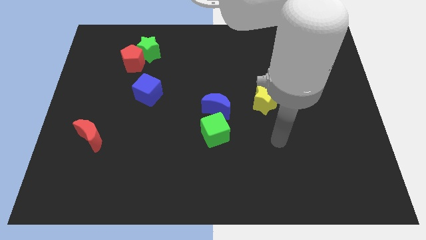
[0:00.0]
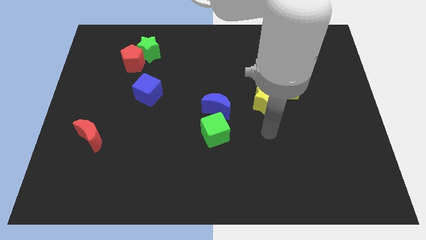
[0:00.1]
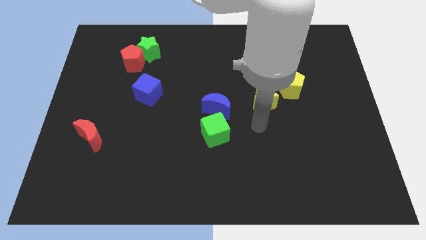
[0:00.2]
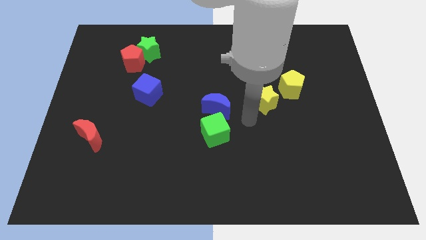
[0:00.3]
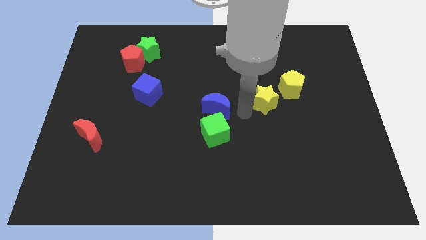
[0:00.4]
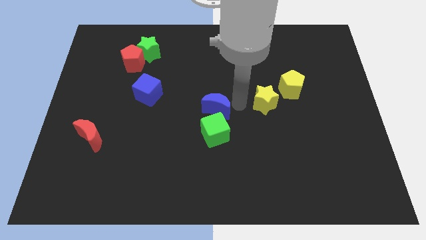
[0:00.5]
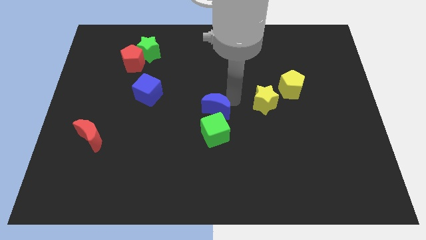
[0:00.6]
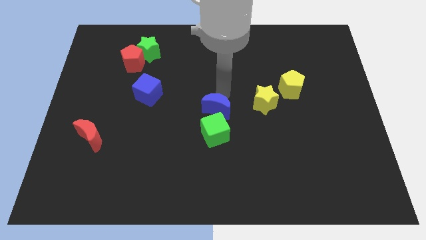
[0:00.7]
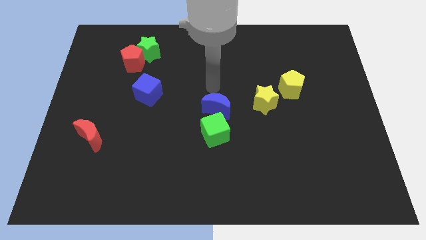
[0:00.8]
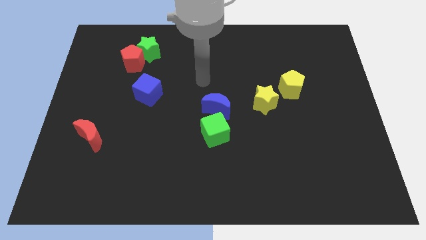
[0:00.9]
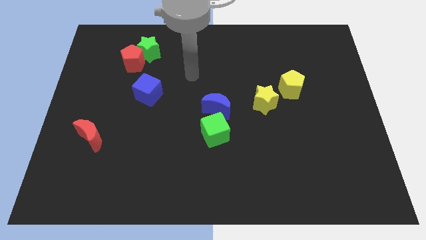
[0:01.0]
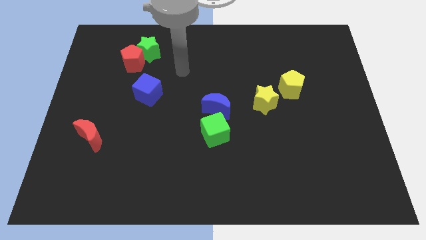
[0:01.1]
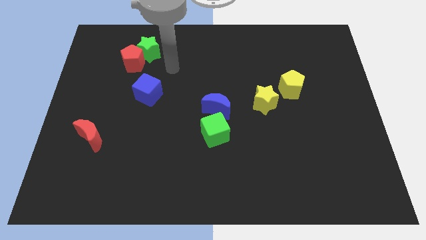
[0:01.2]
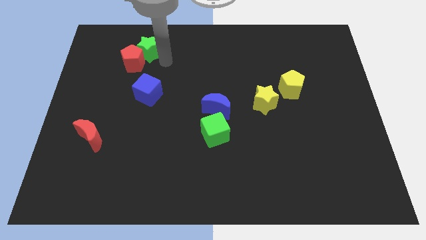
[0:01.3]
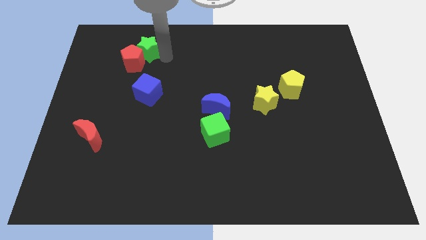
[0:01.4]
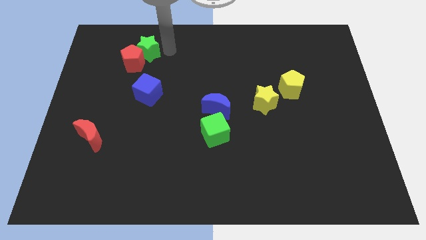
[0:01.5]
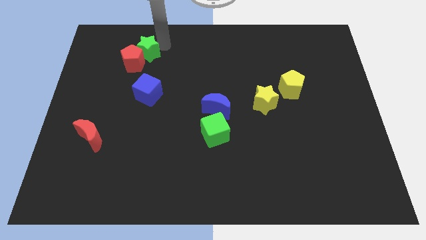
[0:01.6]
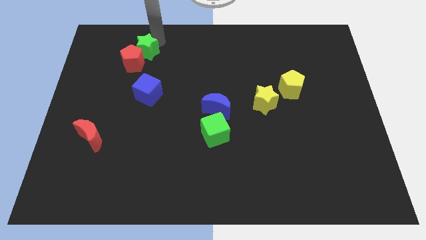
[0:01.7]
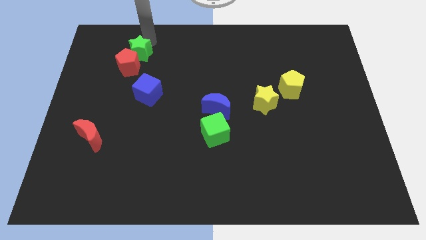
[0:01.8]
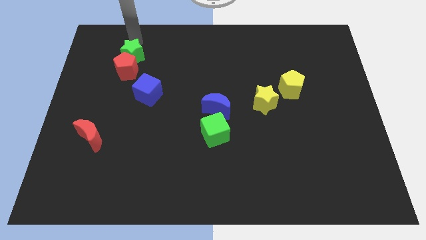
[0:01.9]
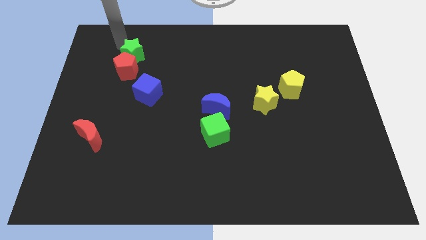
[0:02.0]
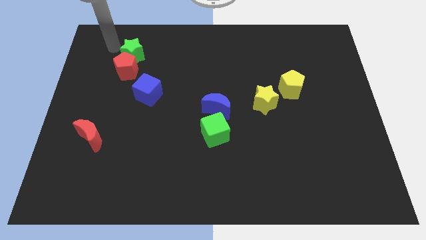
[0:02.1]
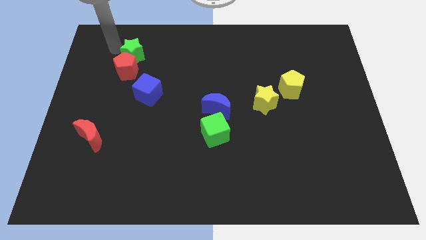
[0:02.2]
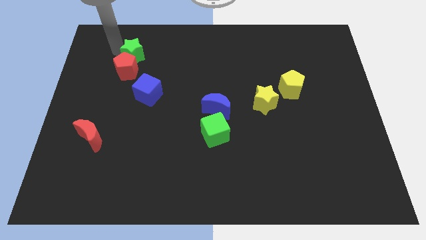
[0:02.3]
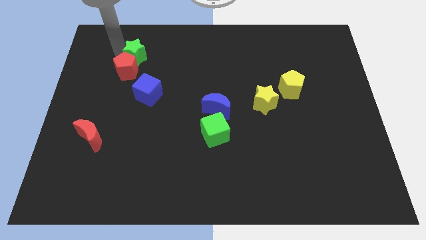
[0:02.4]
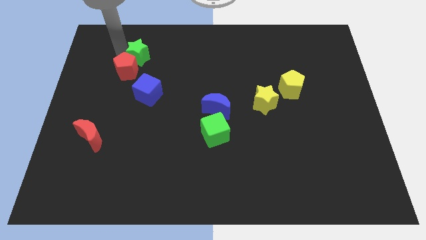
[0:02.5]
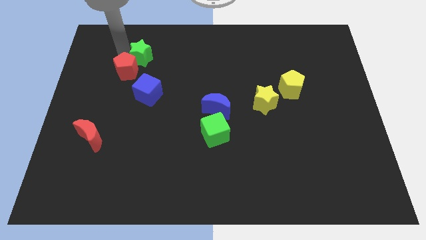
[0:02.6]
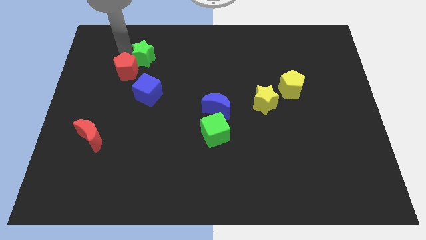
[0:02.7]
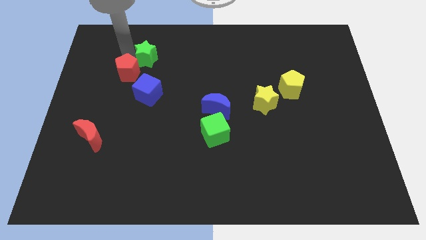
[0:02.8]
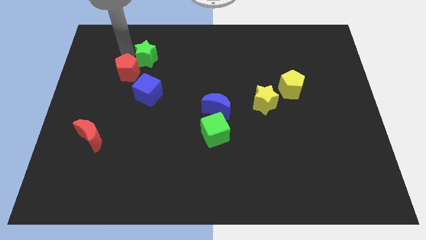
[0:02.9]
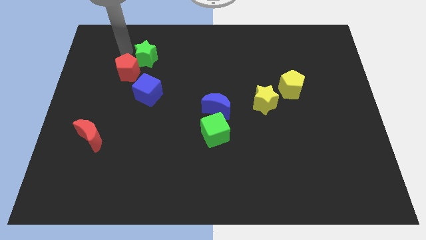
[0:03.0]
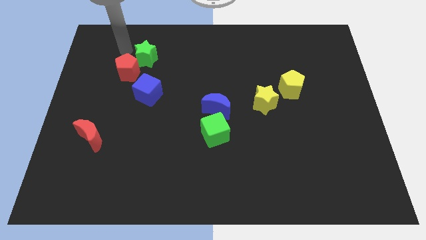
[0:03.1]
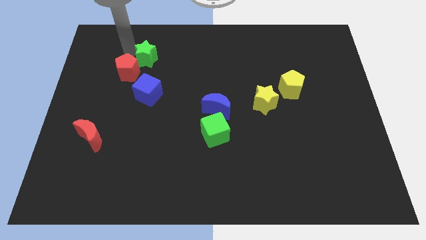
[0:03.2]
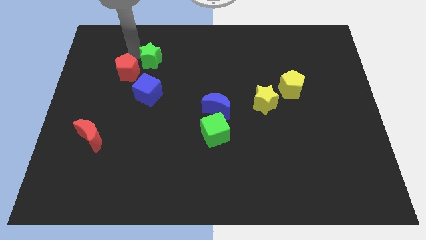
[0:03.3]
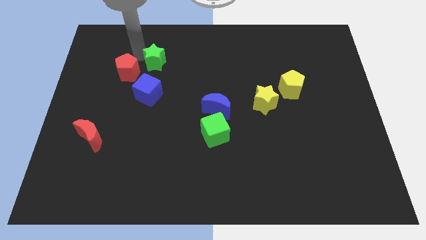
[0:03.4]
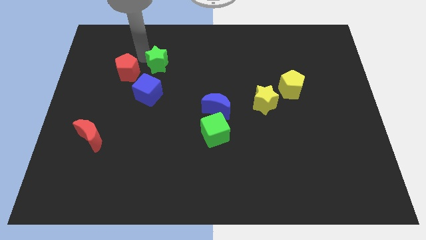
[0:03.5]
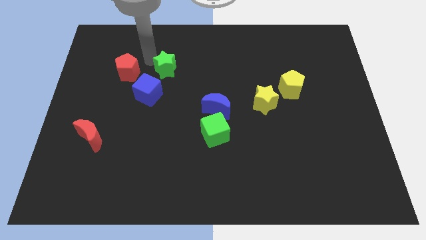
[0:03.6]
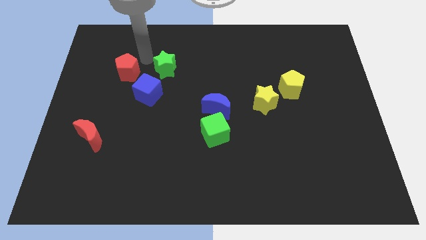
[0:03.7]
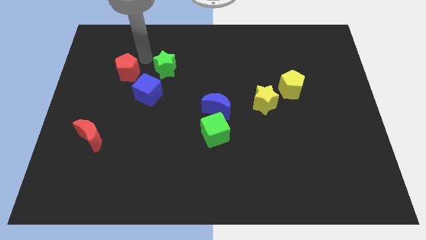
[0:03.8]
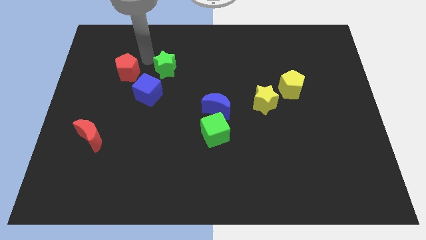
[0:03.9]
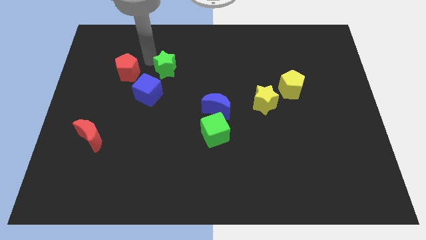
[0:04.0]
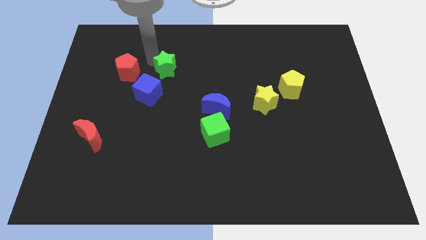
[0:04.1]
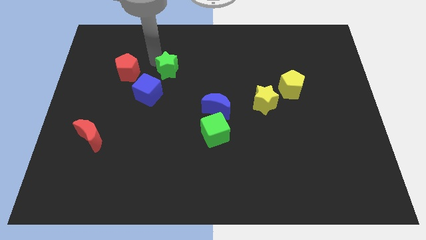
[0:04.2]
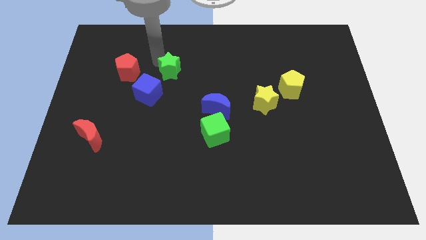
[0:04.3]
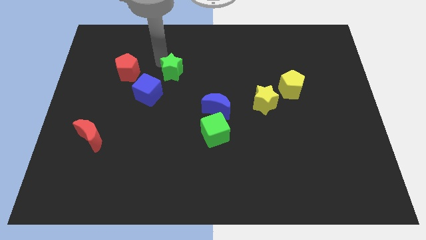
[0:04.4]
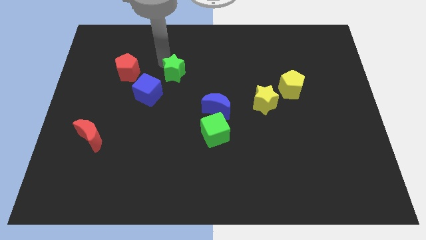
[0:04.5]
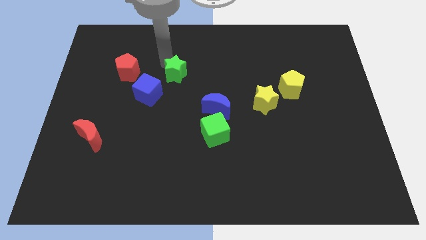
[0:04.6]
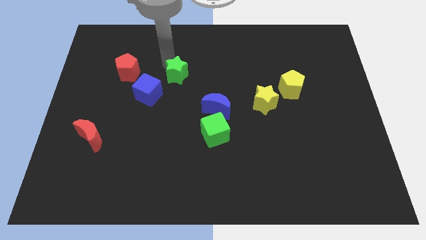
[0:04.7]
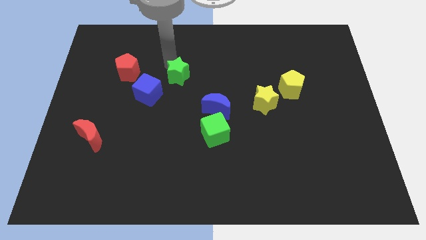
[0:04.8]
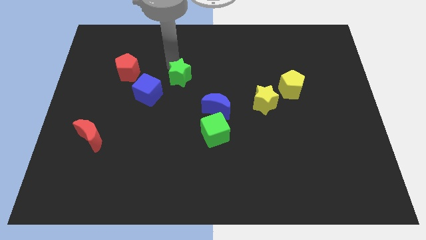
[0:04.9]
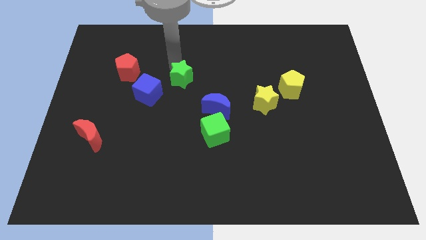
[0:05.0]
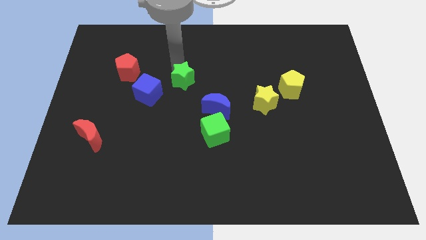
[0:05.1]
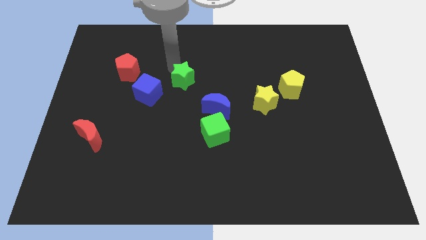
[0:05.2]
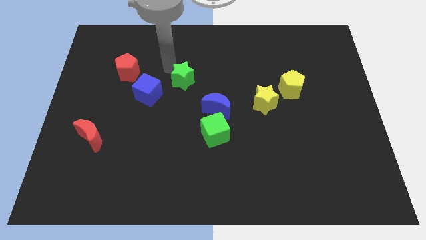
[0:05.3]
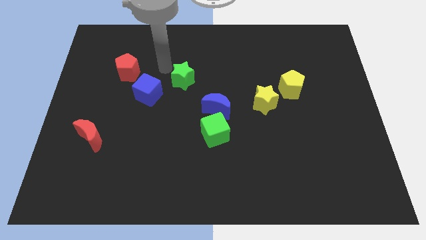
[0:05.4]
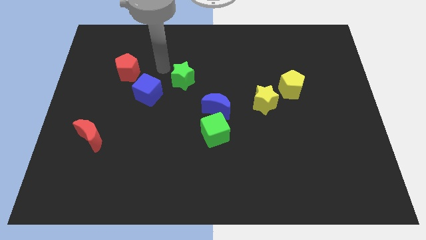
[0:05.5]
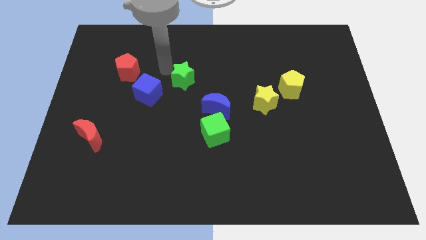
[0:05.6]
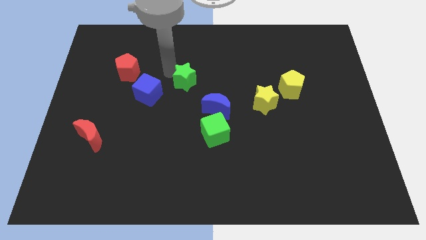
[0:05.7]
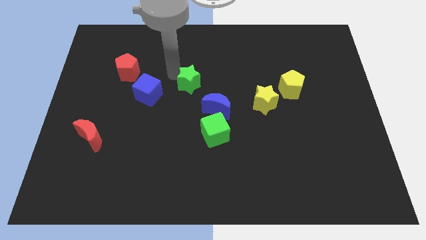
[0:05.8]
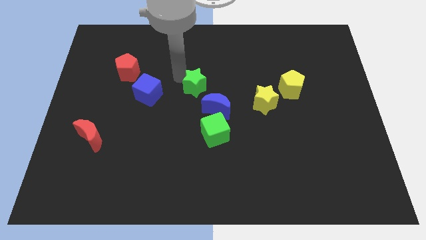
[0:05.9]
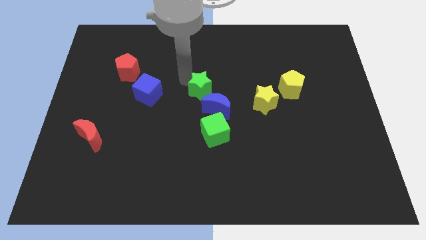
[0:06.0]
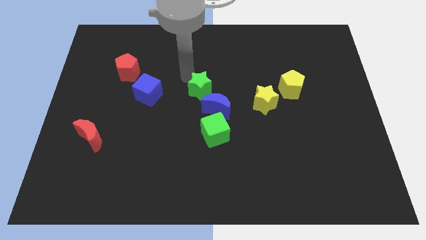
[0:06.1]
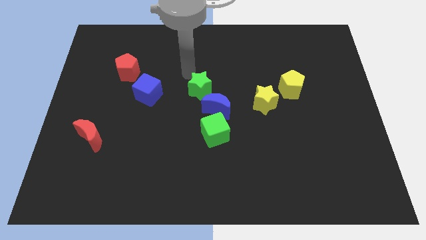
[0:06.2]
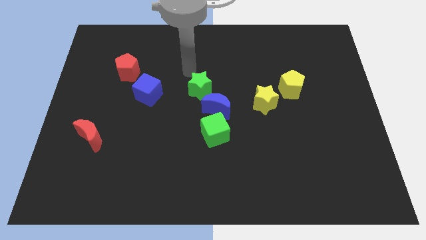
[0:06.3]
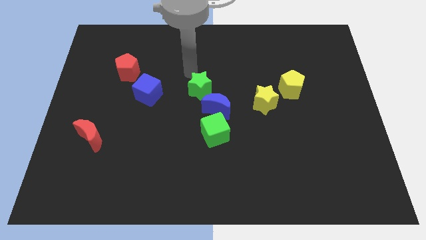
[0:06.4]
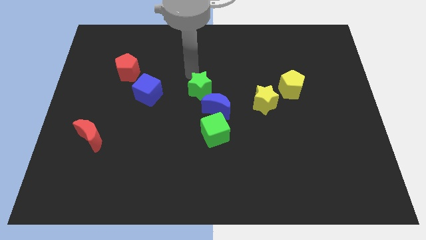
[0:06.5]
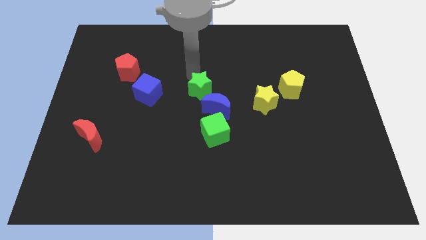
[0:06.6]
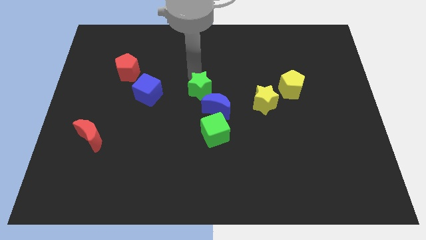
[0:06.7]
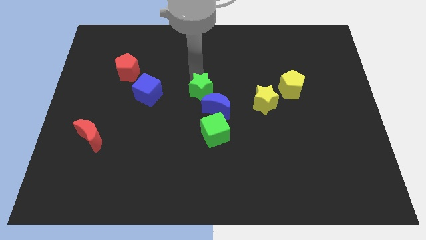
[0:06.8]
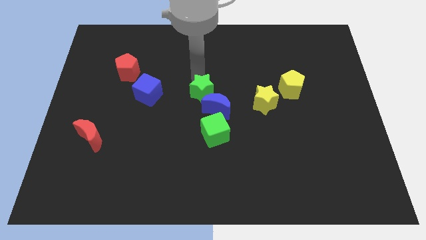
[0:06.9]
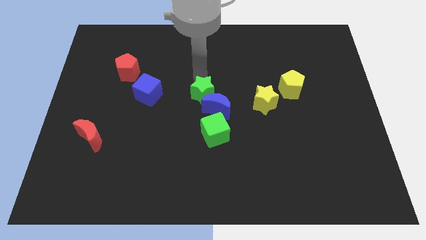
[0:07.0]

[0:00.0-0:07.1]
push the green star to the blue moon
